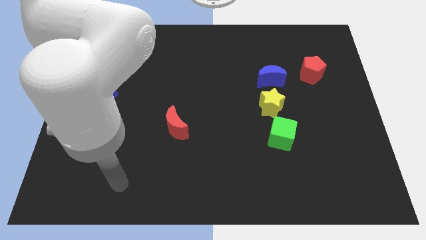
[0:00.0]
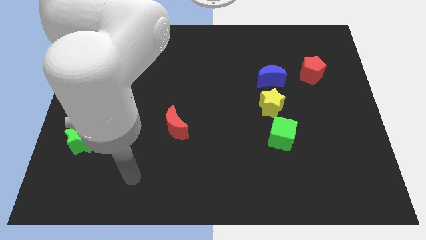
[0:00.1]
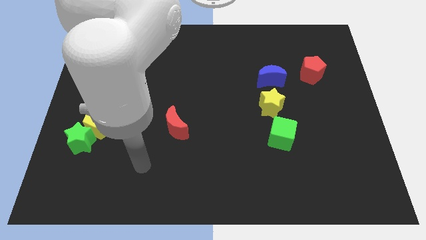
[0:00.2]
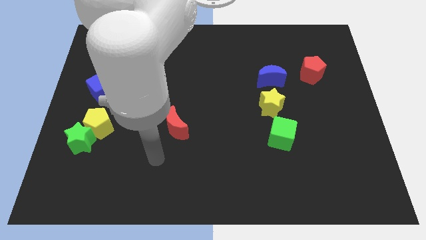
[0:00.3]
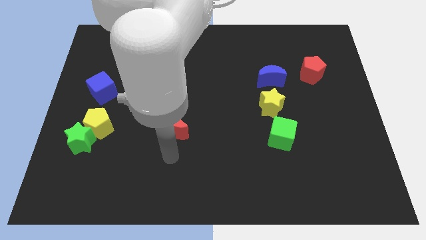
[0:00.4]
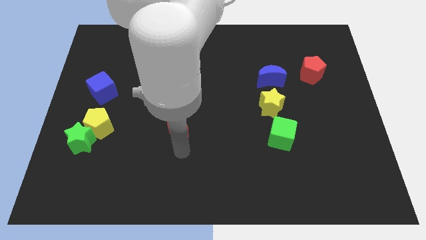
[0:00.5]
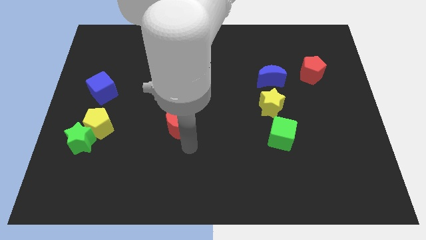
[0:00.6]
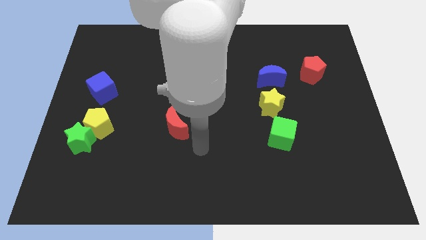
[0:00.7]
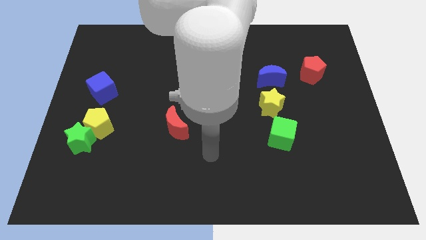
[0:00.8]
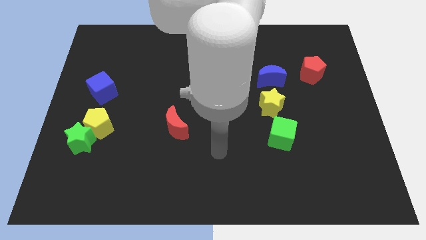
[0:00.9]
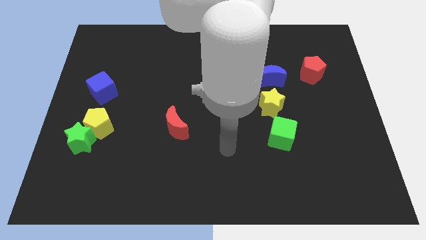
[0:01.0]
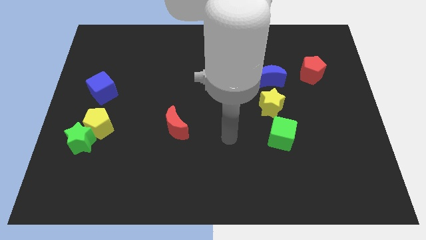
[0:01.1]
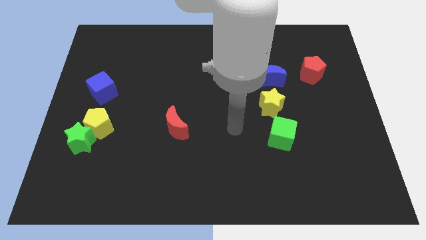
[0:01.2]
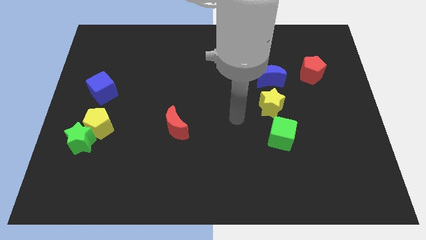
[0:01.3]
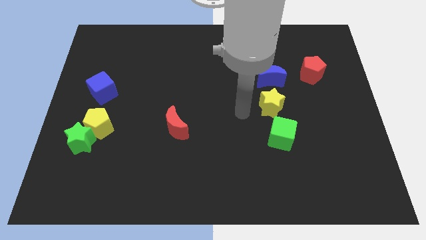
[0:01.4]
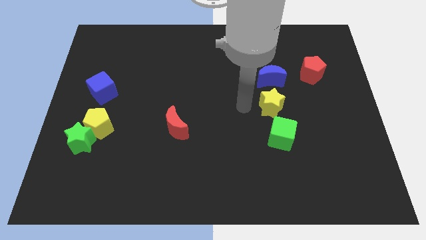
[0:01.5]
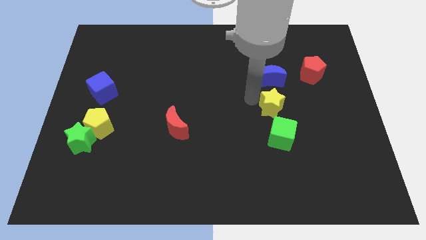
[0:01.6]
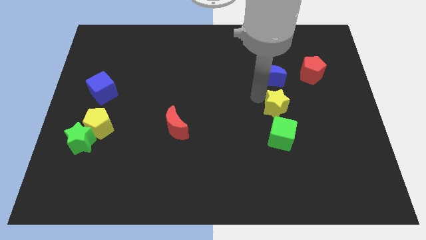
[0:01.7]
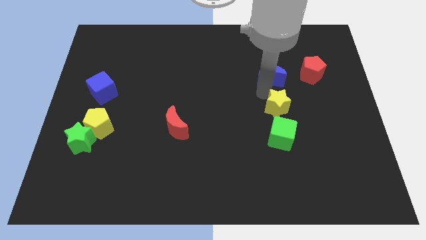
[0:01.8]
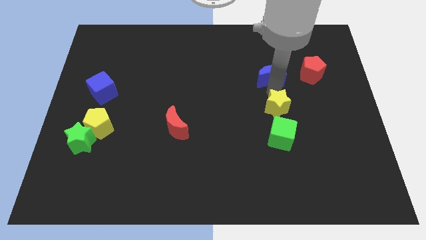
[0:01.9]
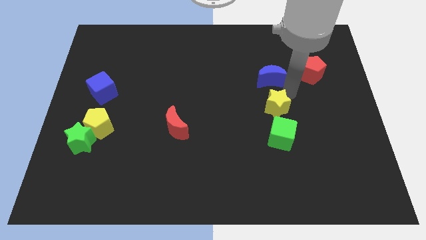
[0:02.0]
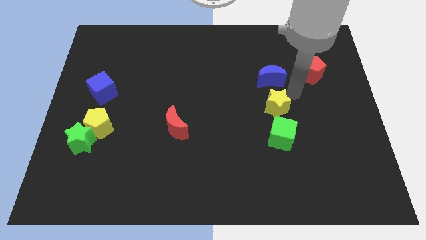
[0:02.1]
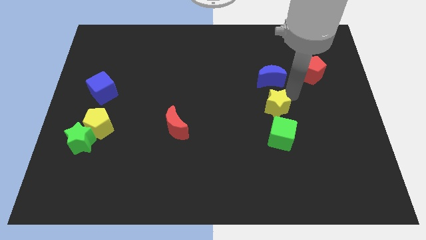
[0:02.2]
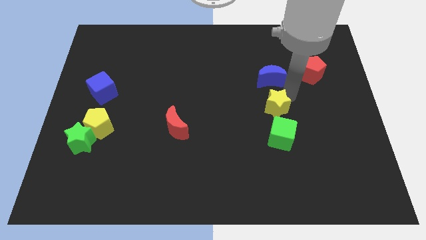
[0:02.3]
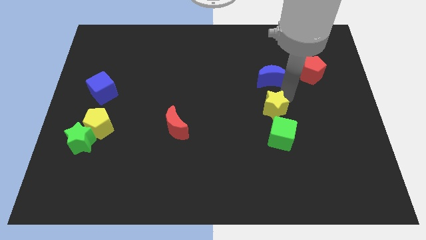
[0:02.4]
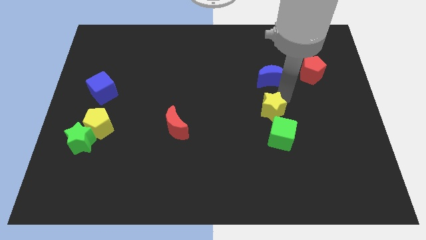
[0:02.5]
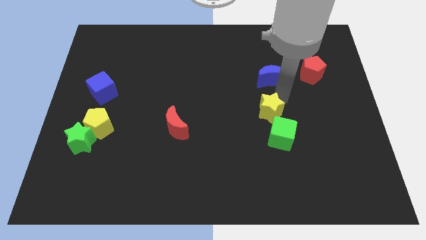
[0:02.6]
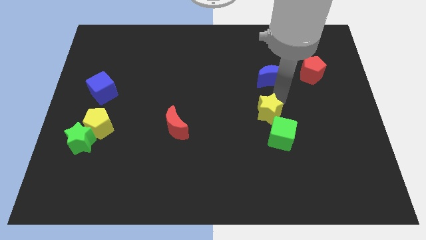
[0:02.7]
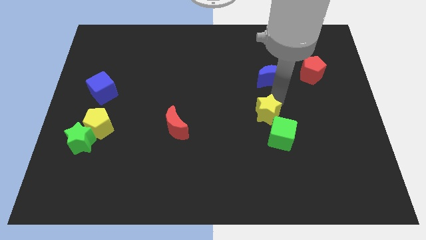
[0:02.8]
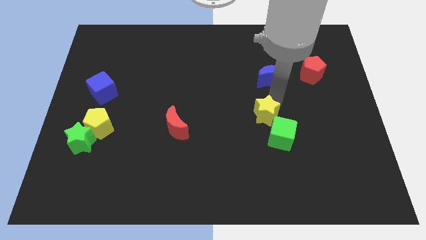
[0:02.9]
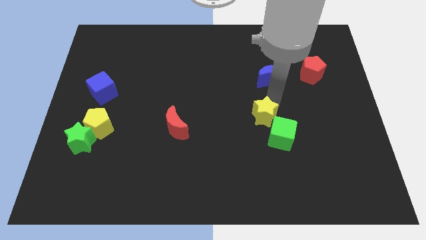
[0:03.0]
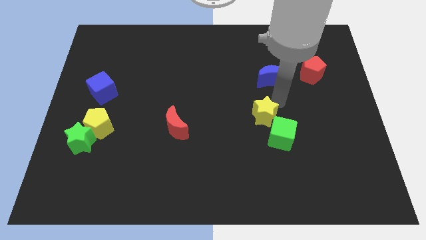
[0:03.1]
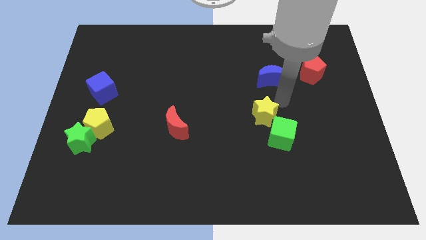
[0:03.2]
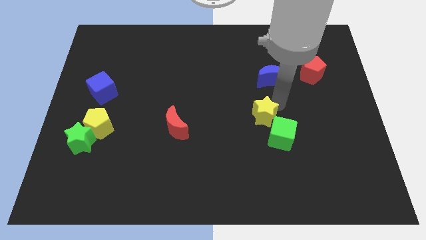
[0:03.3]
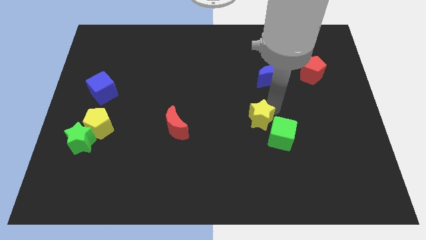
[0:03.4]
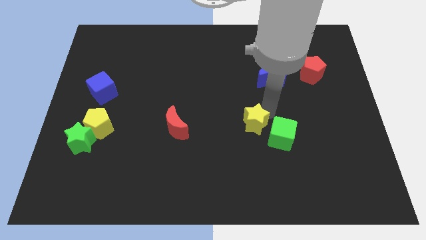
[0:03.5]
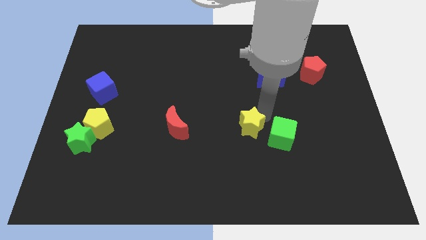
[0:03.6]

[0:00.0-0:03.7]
slide the yellow star slightly downwards and left diagonally

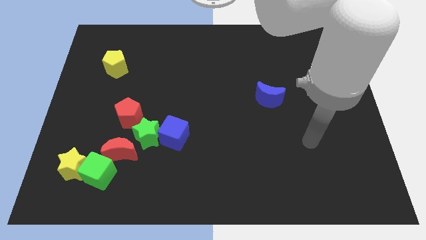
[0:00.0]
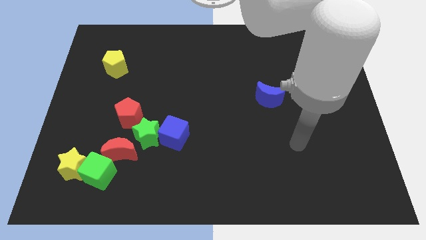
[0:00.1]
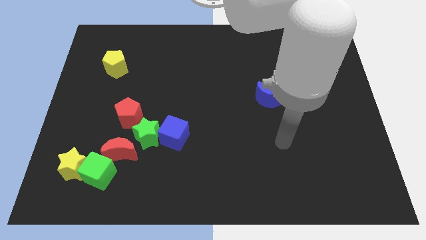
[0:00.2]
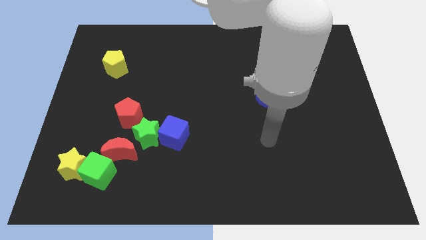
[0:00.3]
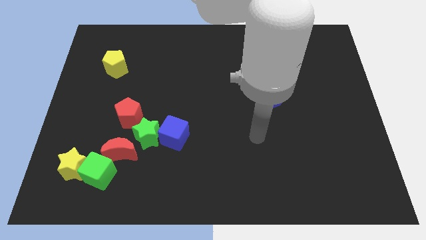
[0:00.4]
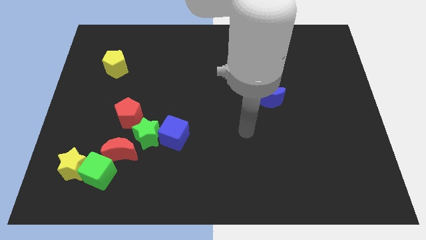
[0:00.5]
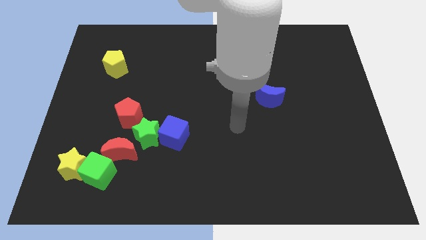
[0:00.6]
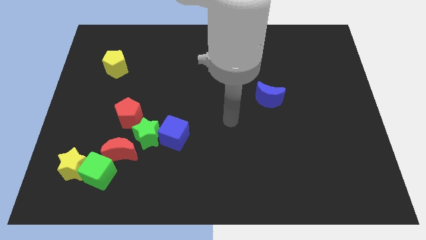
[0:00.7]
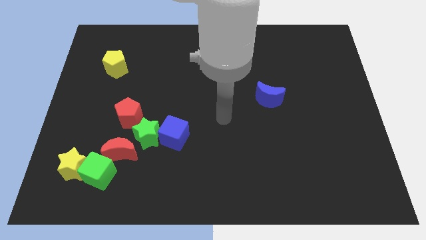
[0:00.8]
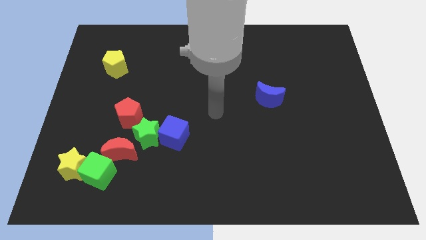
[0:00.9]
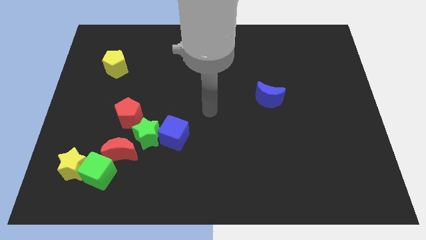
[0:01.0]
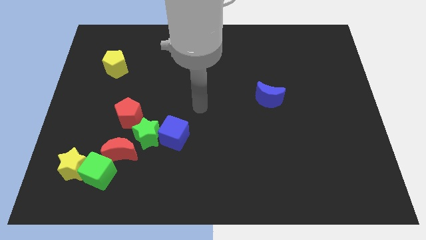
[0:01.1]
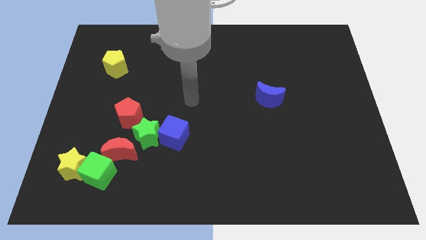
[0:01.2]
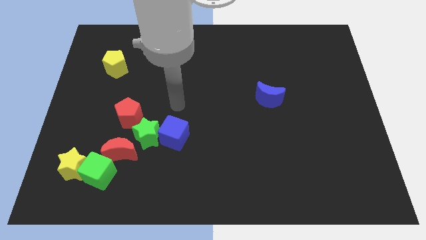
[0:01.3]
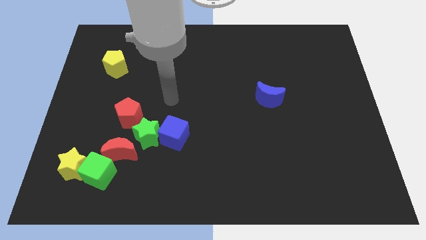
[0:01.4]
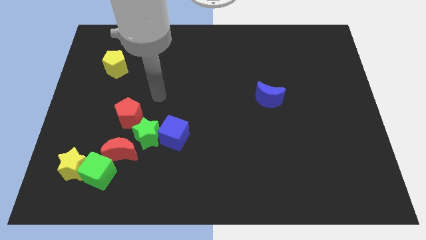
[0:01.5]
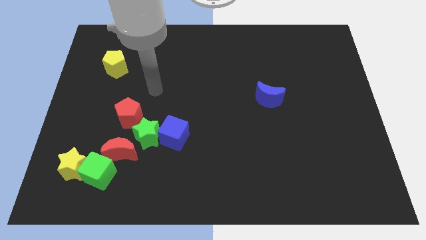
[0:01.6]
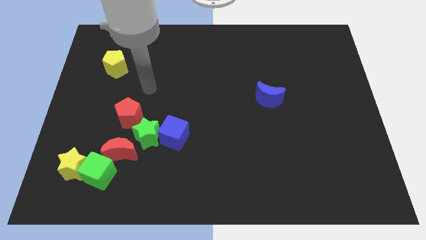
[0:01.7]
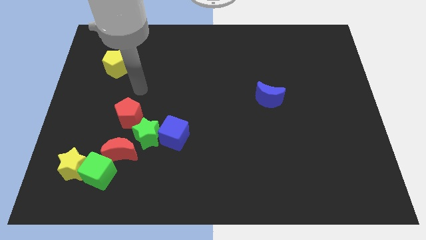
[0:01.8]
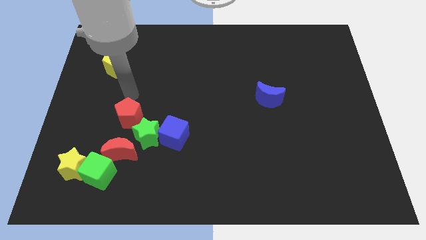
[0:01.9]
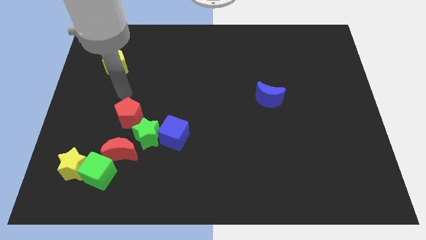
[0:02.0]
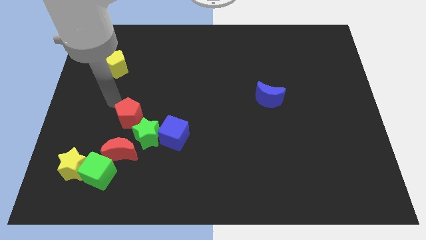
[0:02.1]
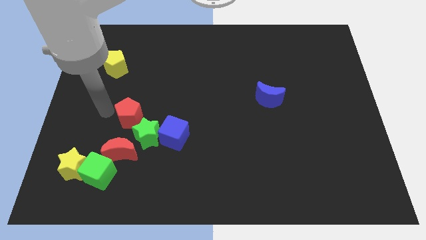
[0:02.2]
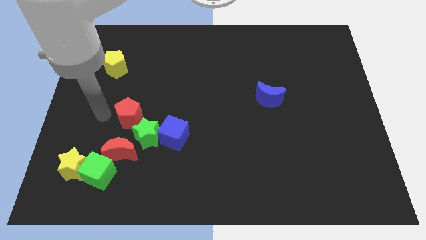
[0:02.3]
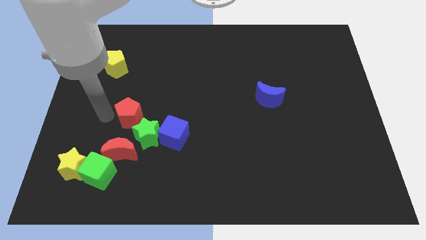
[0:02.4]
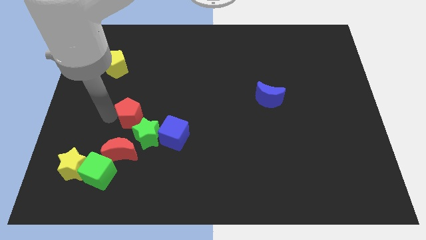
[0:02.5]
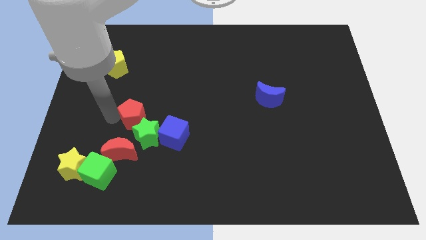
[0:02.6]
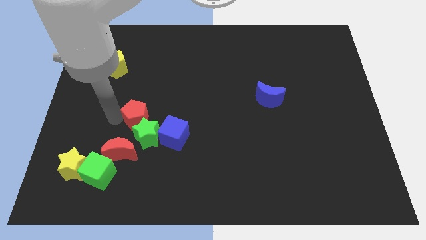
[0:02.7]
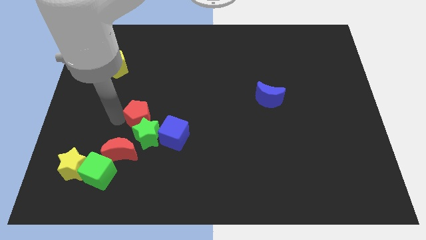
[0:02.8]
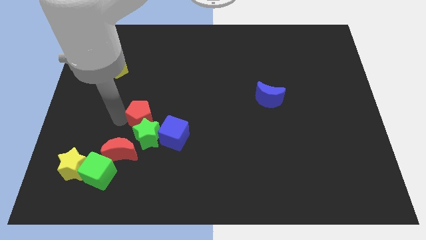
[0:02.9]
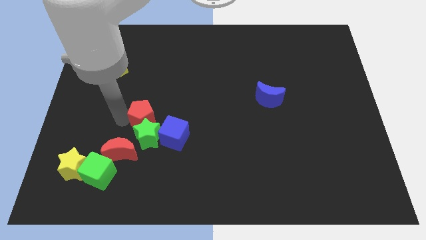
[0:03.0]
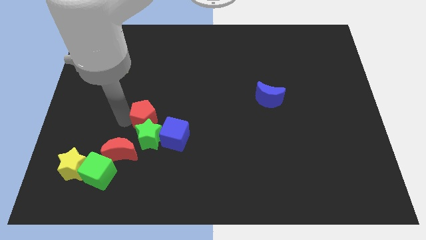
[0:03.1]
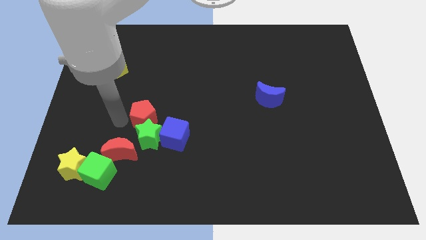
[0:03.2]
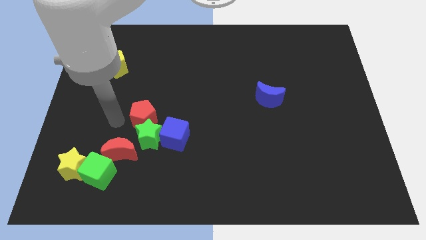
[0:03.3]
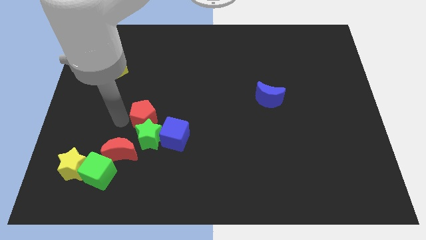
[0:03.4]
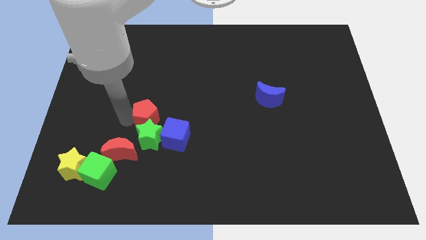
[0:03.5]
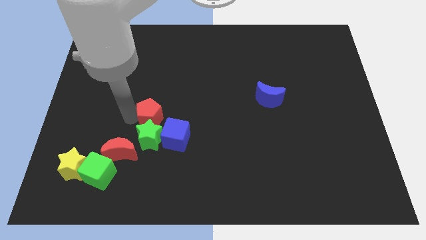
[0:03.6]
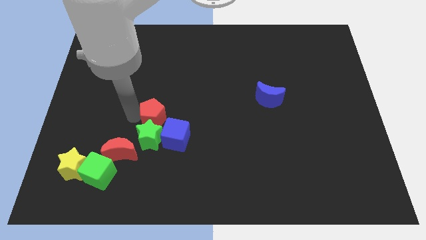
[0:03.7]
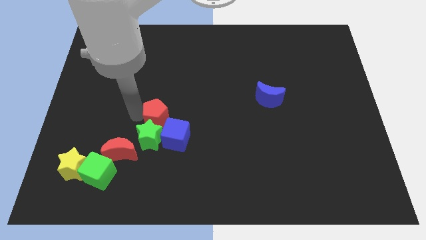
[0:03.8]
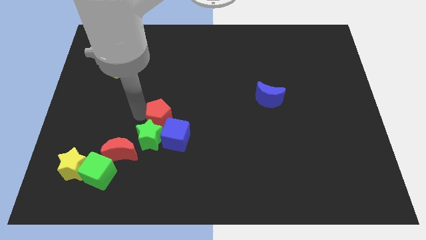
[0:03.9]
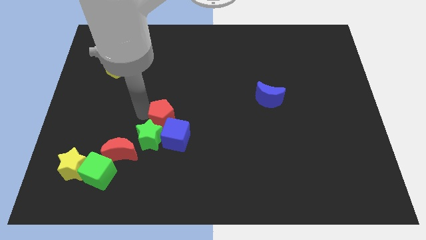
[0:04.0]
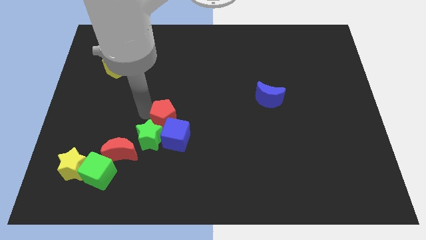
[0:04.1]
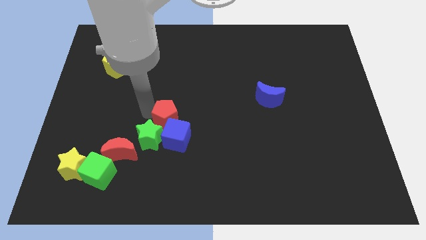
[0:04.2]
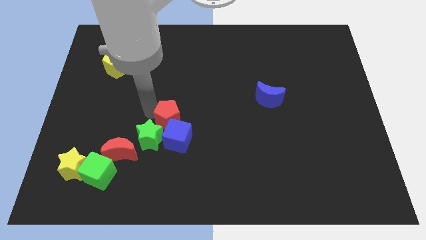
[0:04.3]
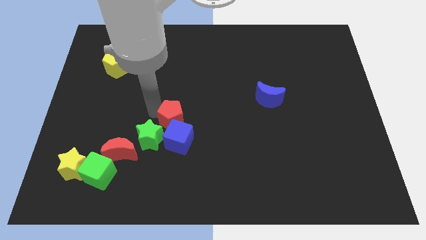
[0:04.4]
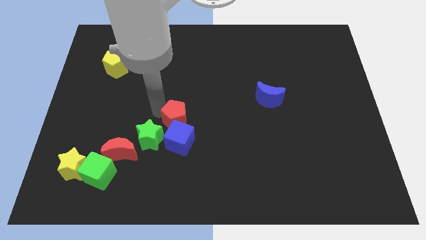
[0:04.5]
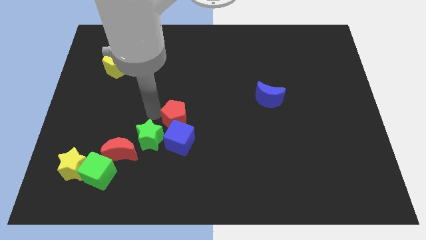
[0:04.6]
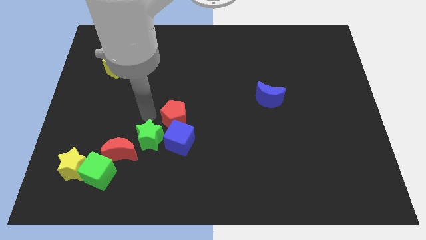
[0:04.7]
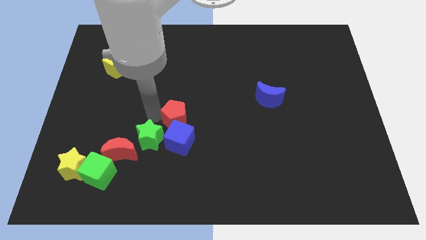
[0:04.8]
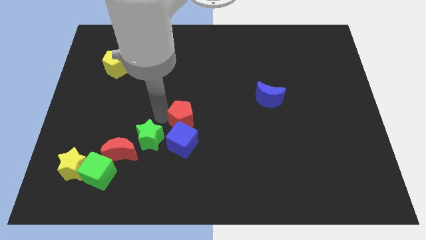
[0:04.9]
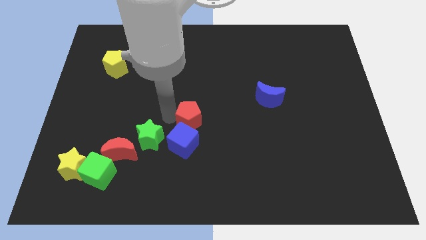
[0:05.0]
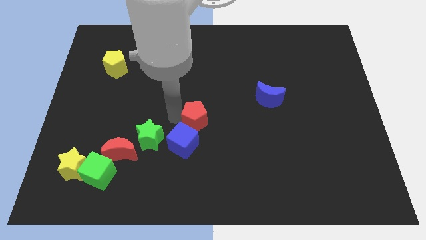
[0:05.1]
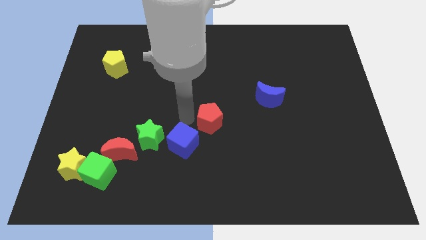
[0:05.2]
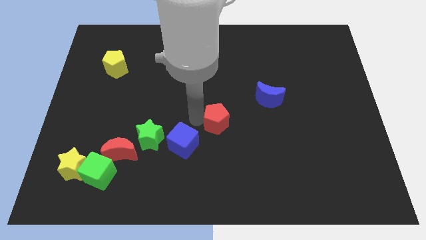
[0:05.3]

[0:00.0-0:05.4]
push the red pentagon to the right
